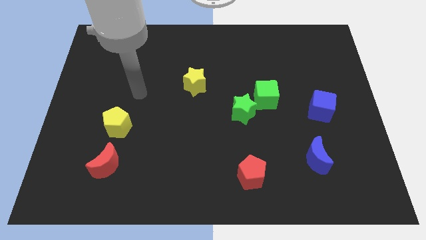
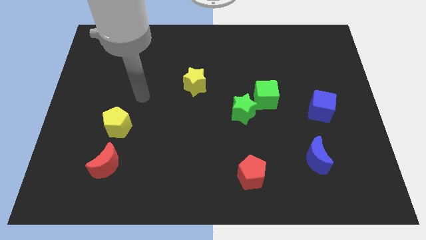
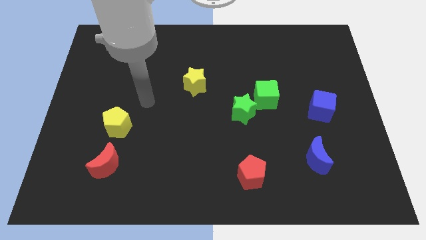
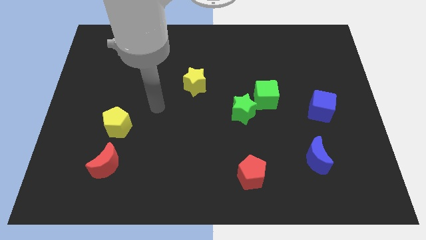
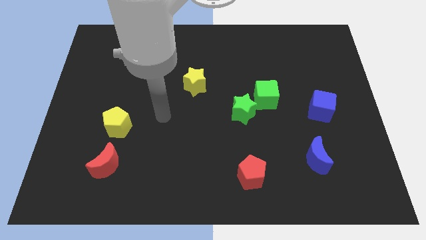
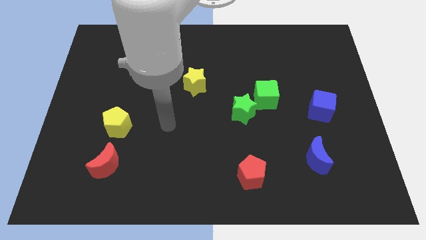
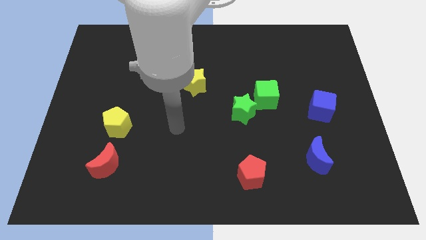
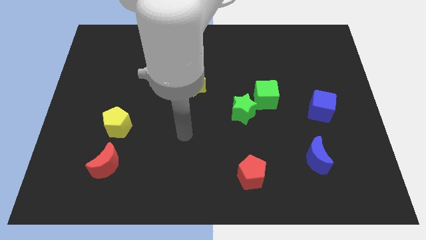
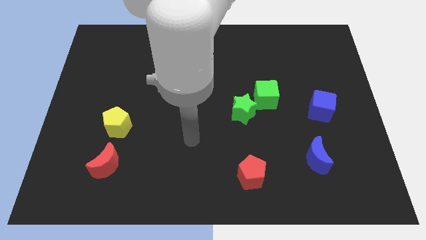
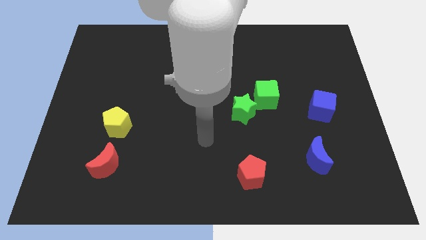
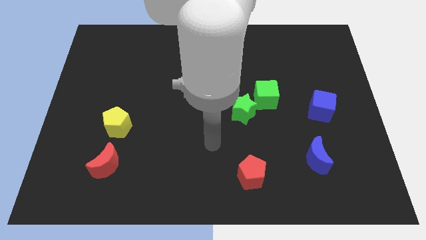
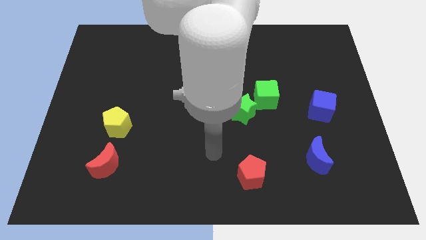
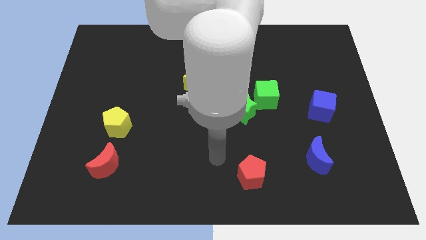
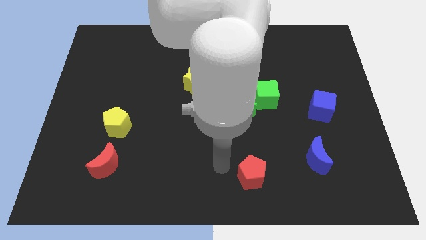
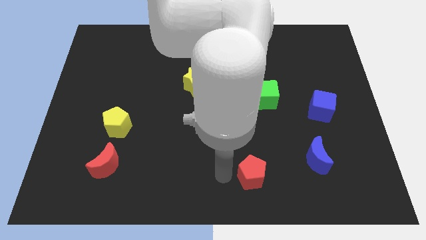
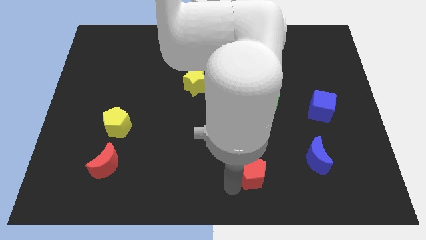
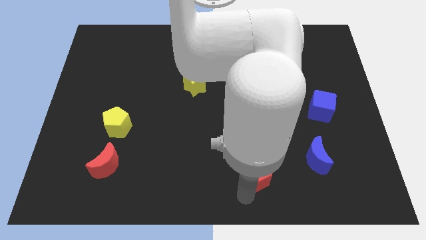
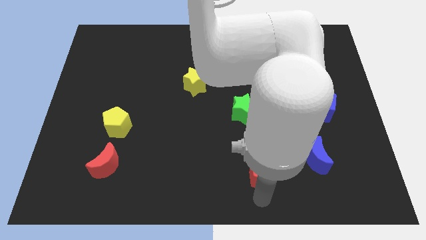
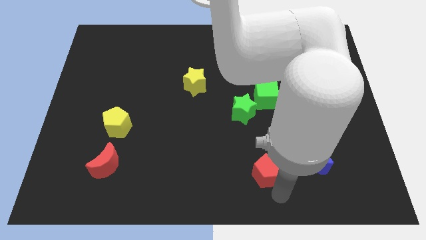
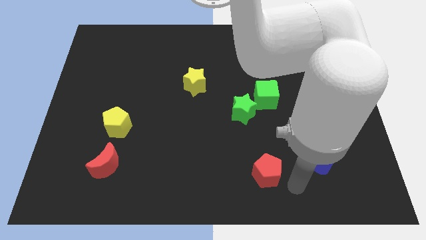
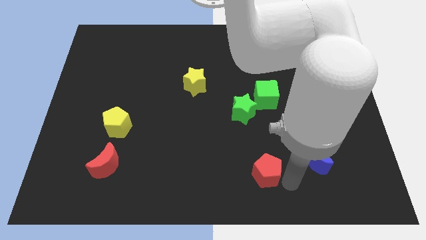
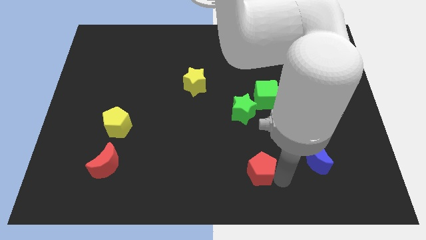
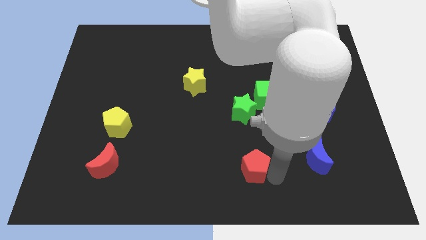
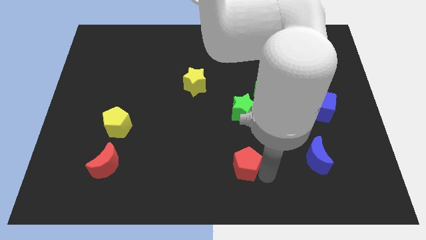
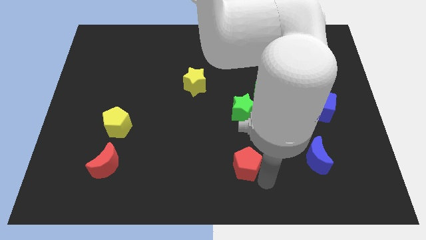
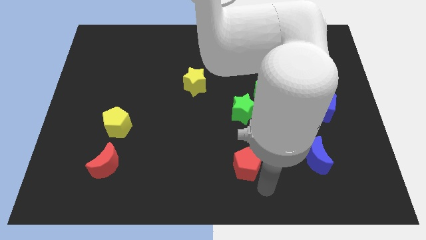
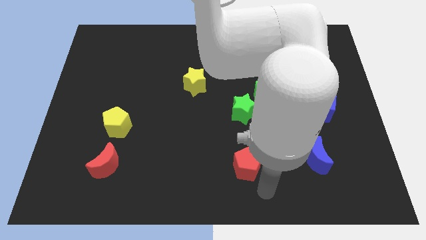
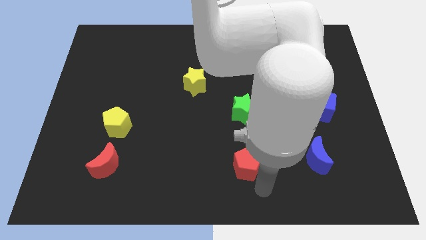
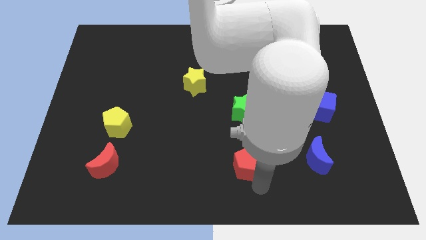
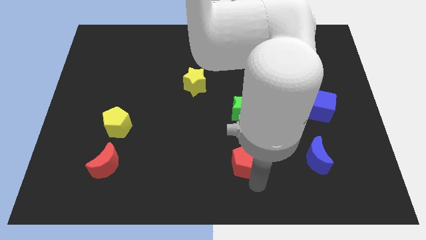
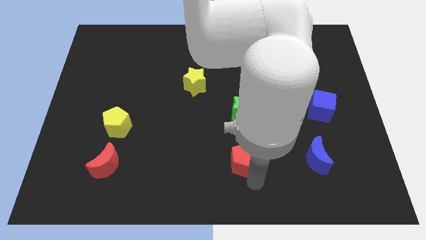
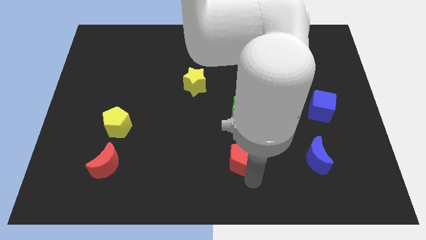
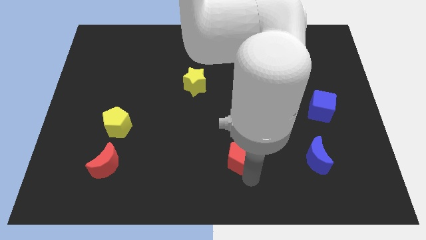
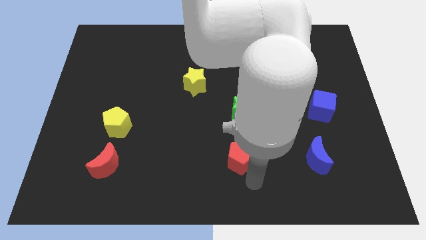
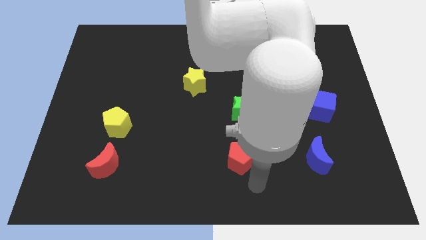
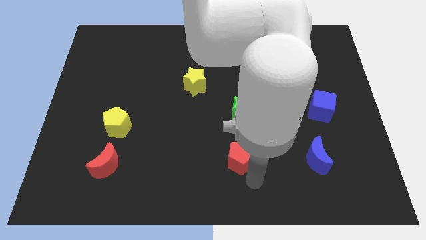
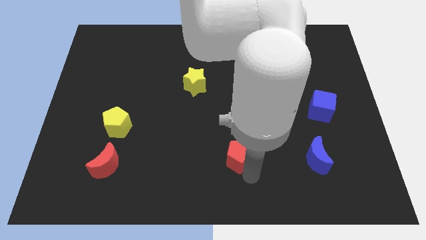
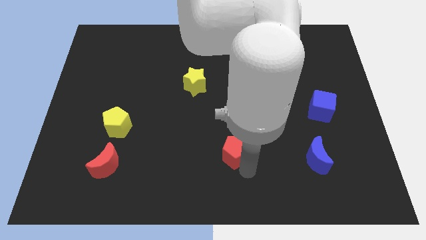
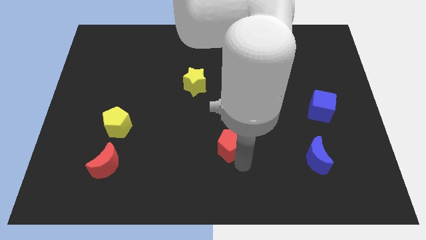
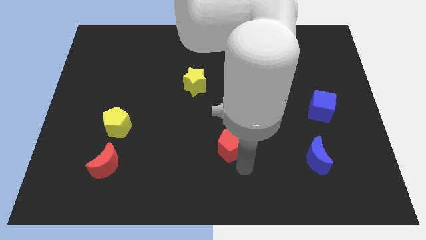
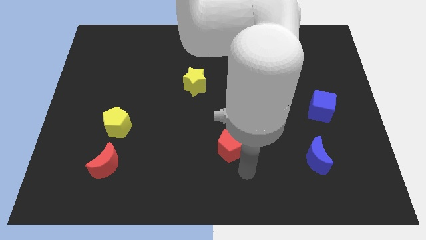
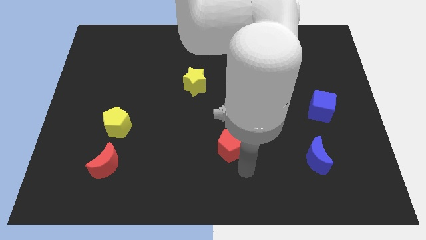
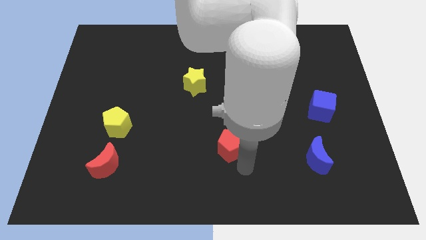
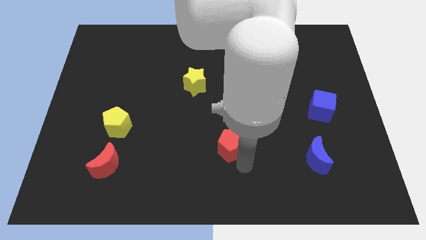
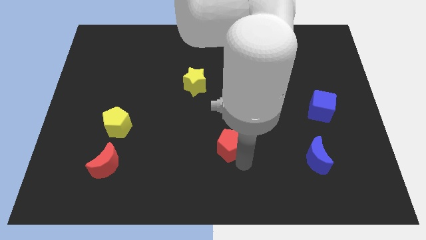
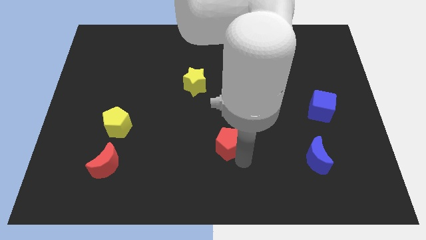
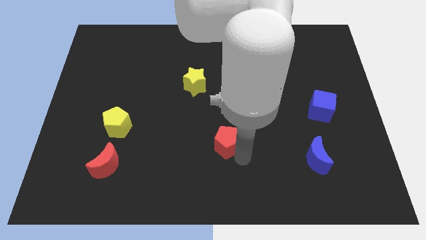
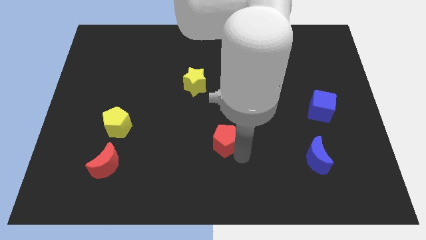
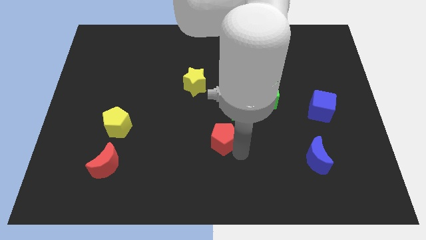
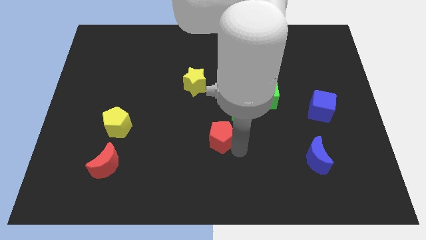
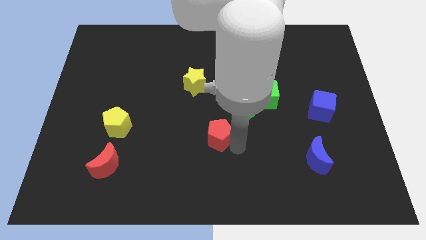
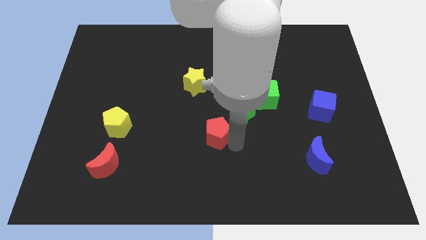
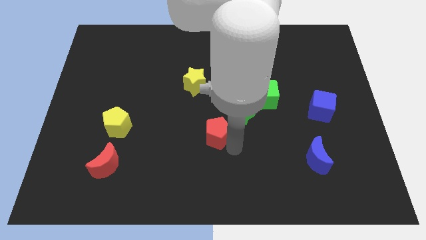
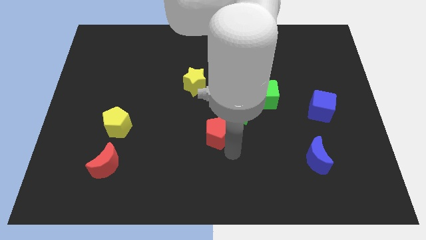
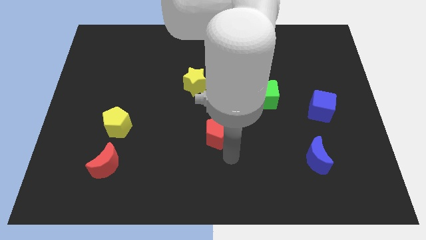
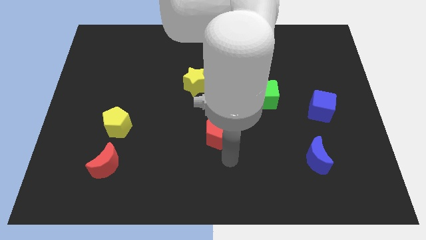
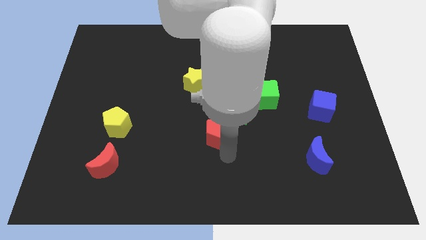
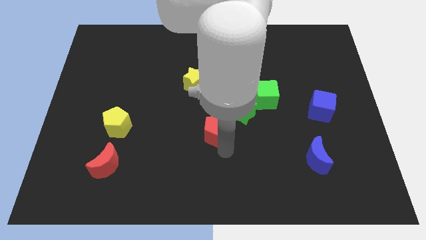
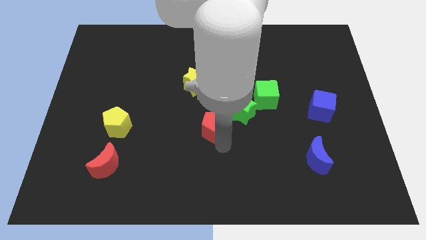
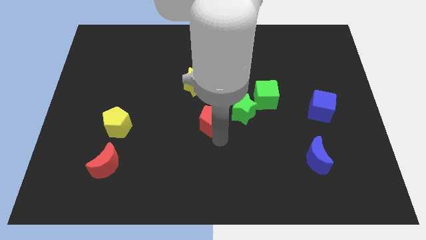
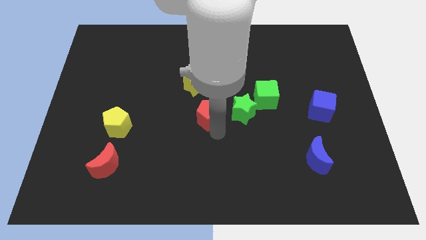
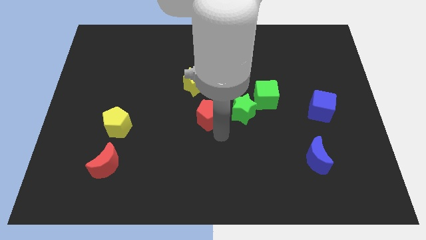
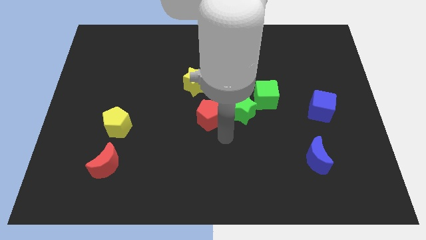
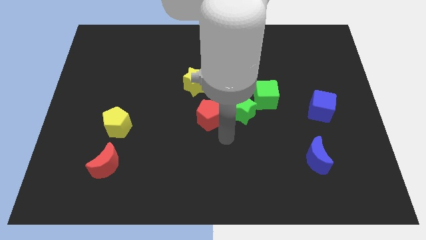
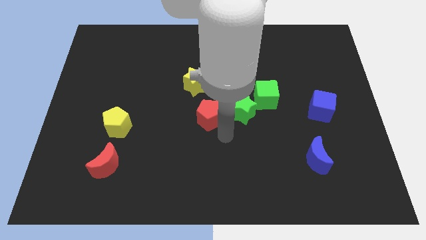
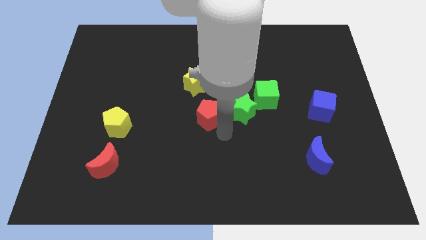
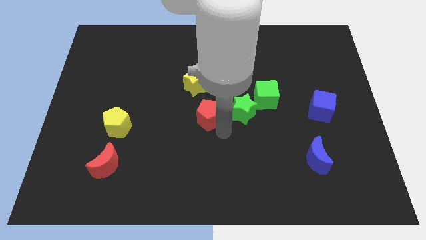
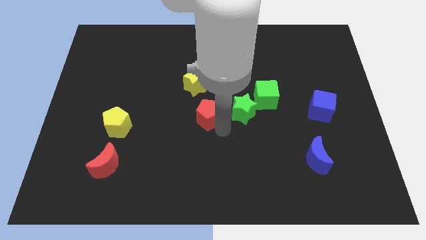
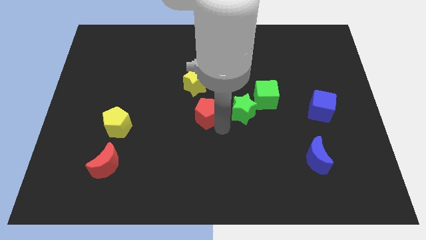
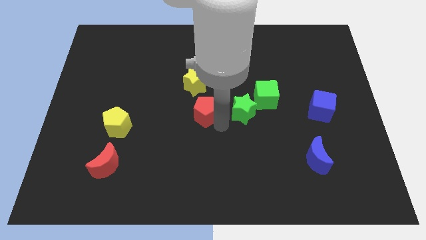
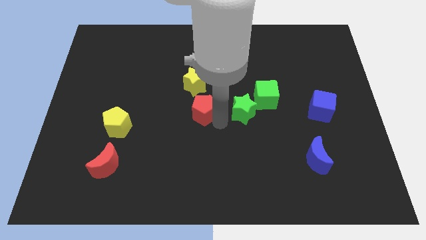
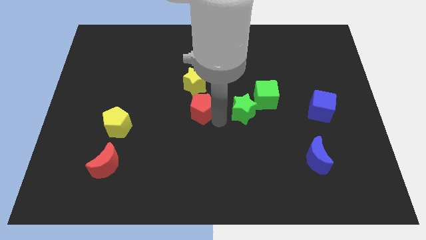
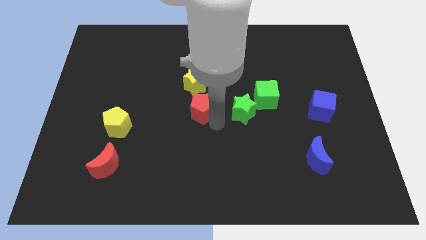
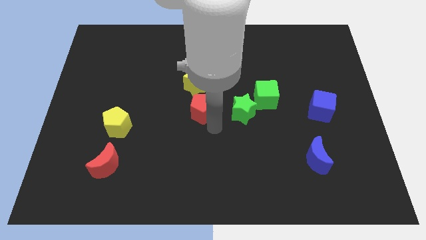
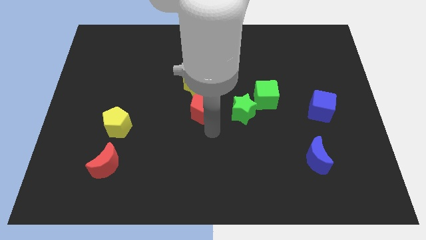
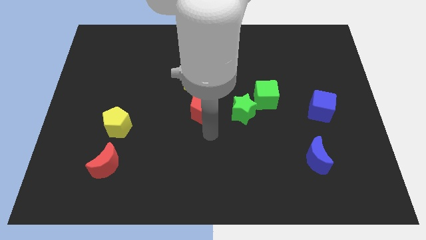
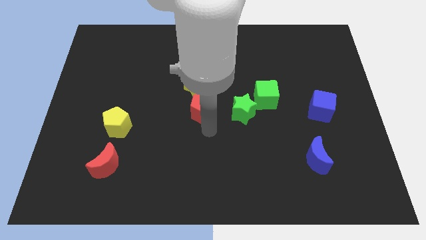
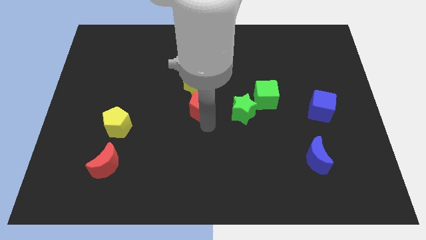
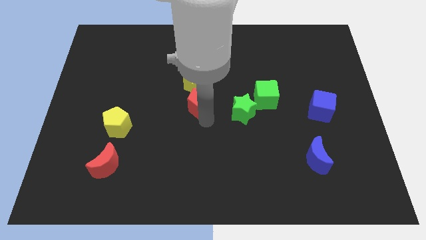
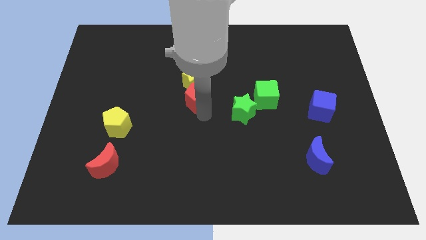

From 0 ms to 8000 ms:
push the red pentagon towards the yellow star
